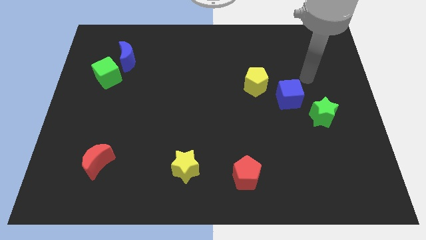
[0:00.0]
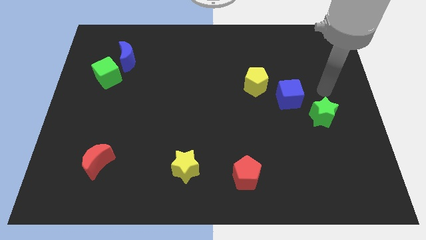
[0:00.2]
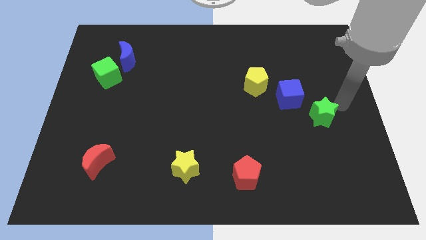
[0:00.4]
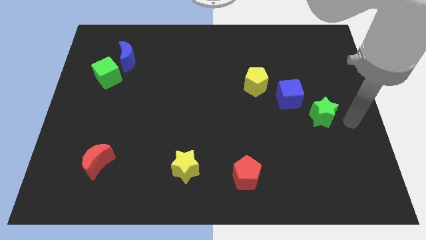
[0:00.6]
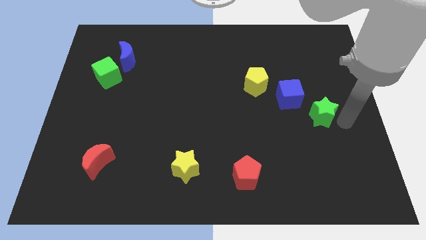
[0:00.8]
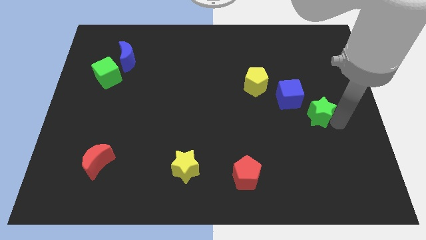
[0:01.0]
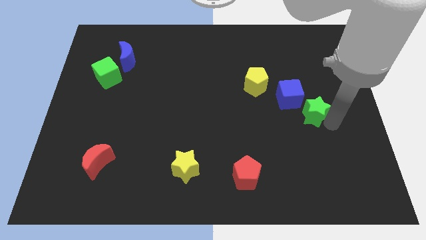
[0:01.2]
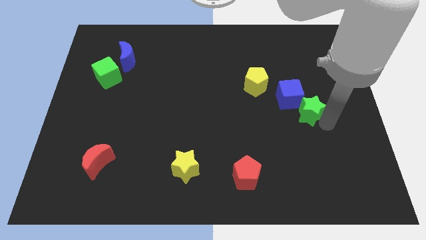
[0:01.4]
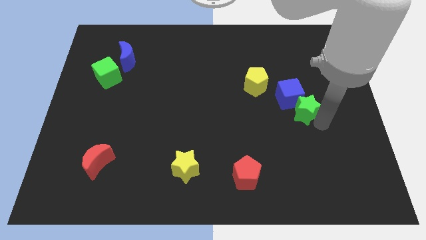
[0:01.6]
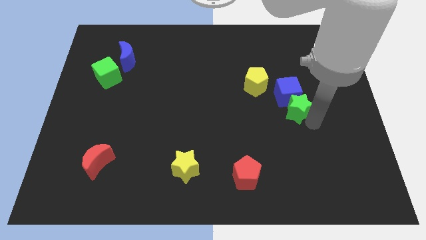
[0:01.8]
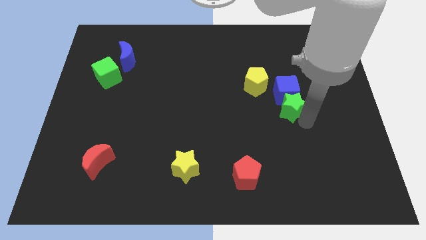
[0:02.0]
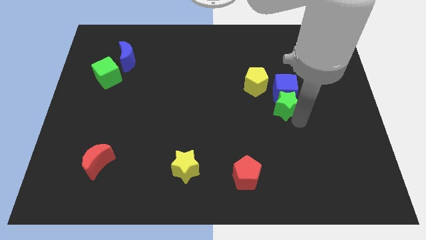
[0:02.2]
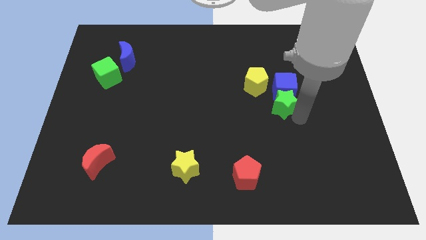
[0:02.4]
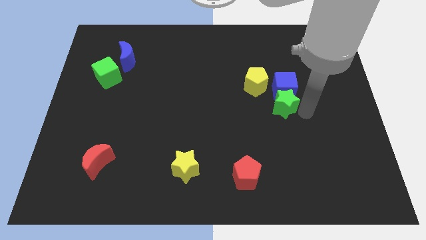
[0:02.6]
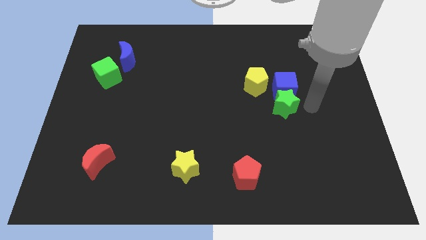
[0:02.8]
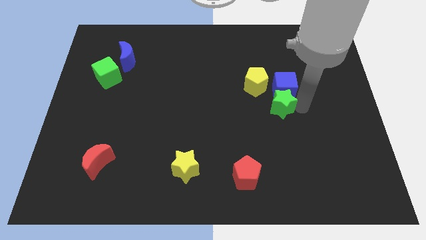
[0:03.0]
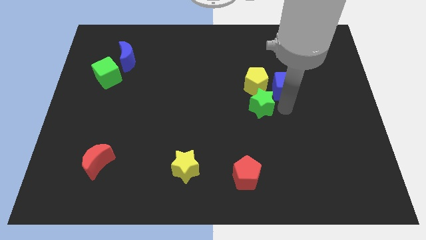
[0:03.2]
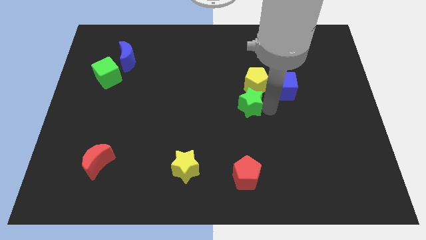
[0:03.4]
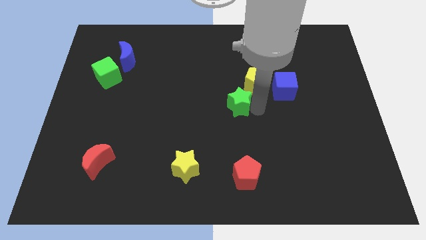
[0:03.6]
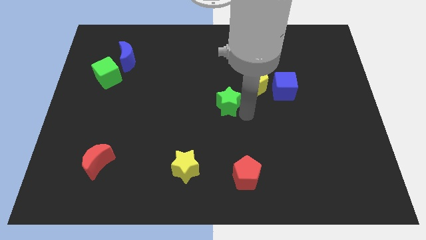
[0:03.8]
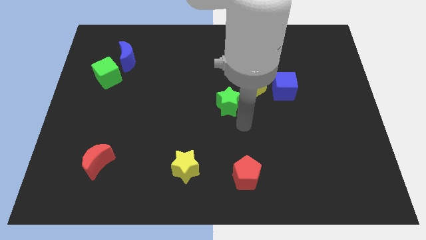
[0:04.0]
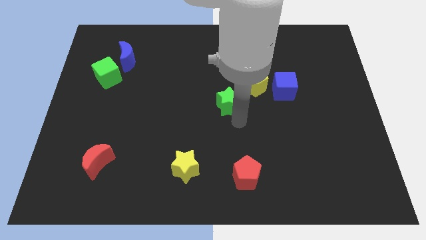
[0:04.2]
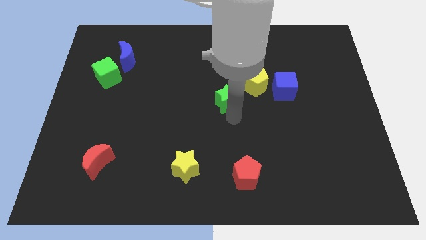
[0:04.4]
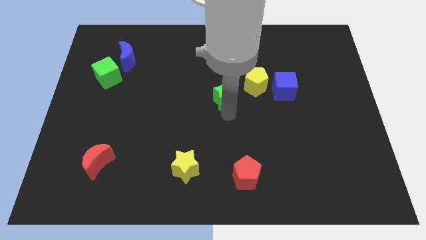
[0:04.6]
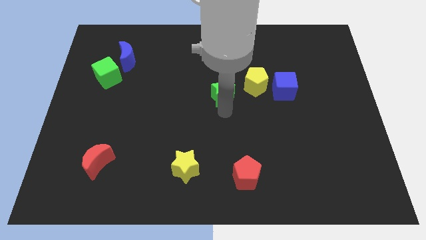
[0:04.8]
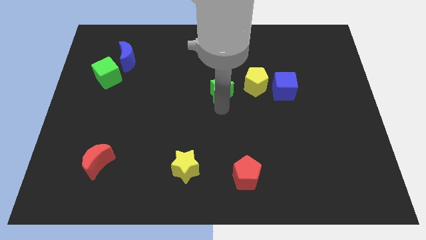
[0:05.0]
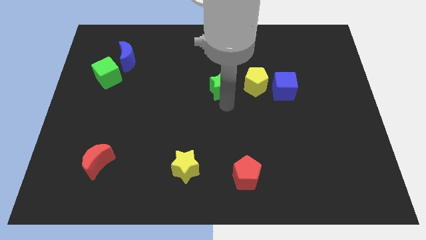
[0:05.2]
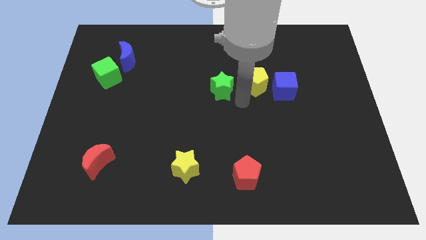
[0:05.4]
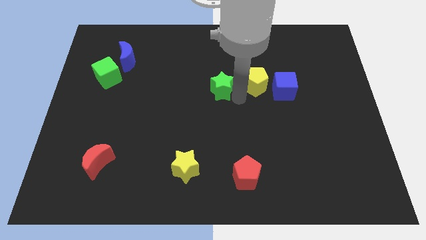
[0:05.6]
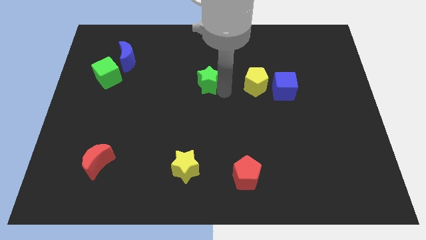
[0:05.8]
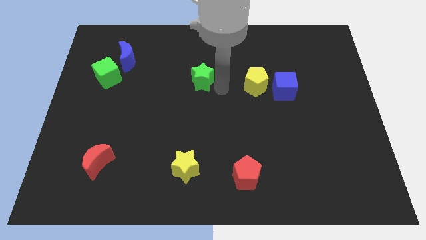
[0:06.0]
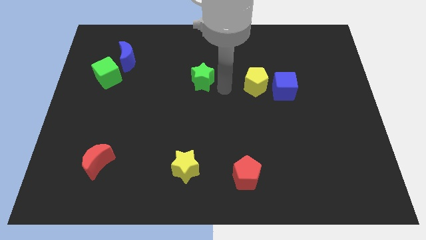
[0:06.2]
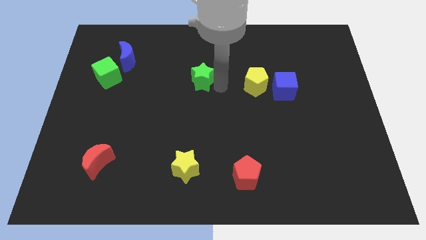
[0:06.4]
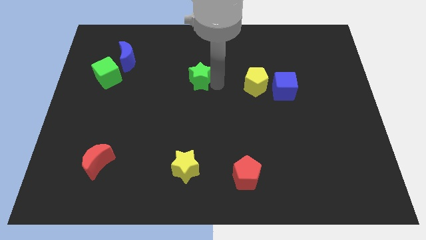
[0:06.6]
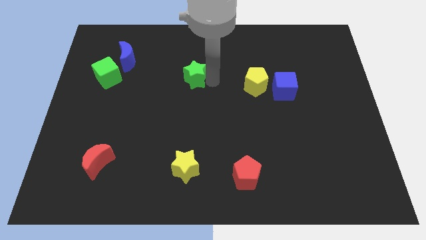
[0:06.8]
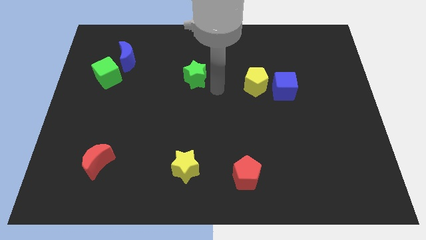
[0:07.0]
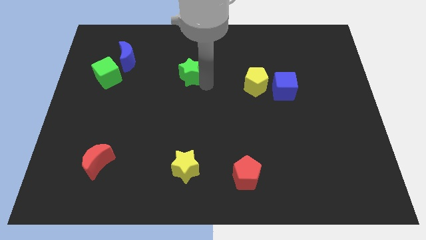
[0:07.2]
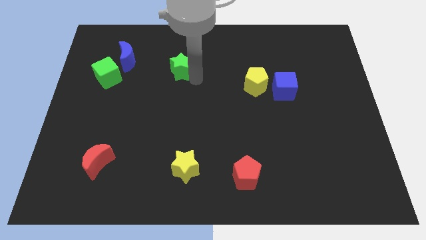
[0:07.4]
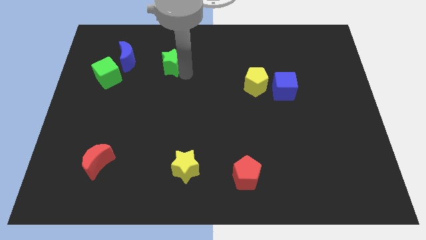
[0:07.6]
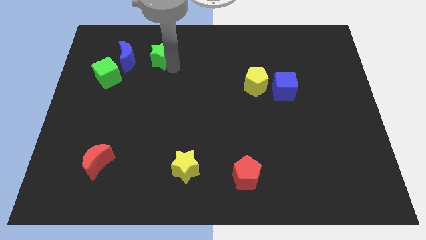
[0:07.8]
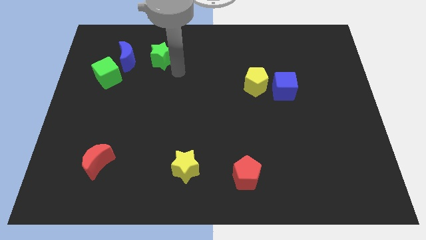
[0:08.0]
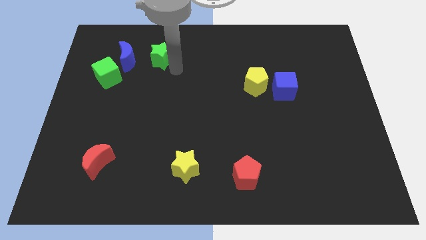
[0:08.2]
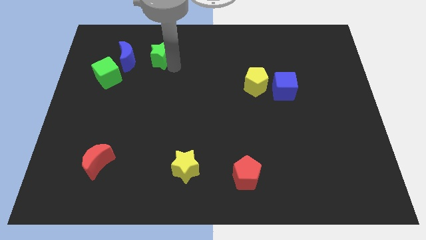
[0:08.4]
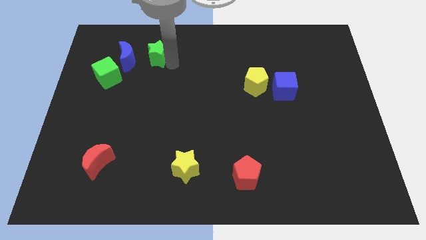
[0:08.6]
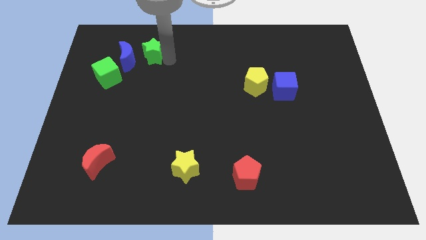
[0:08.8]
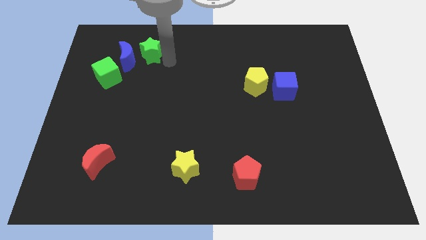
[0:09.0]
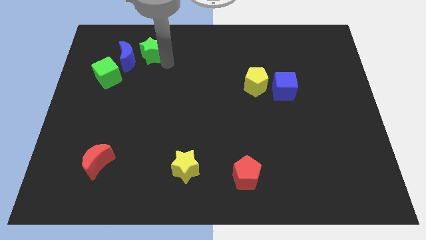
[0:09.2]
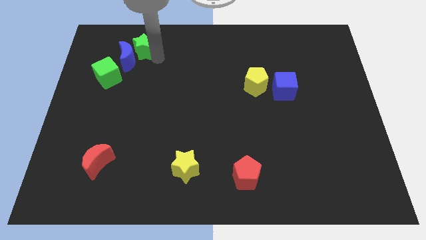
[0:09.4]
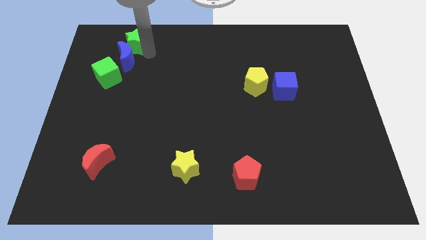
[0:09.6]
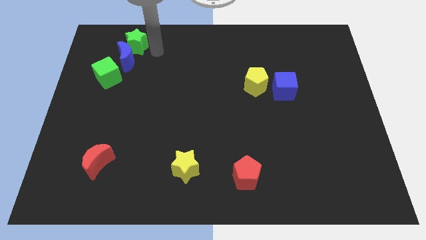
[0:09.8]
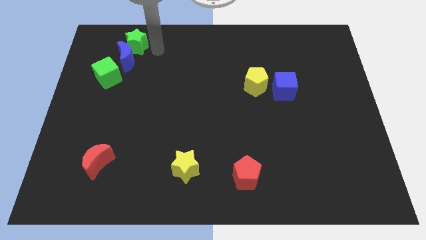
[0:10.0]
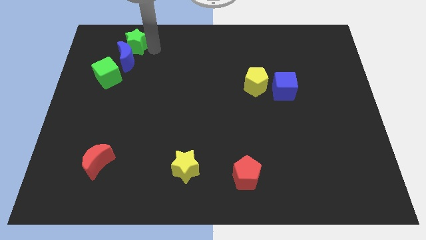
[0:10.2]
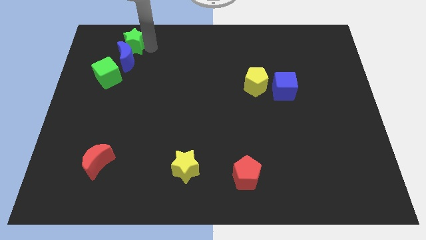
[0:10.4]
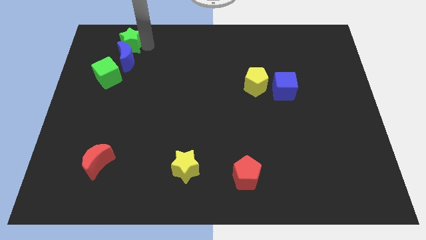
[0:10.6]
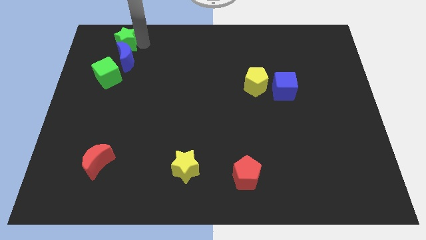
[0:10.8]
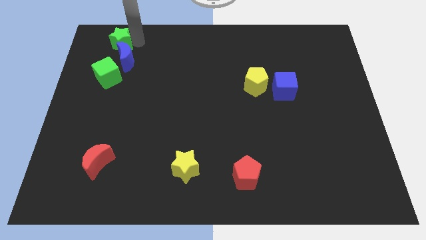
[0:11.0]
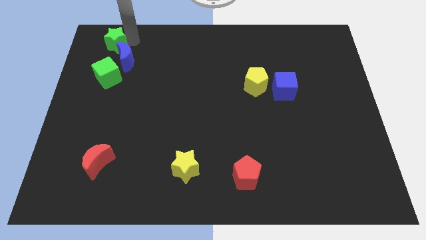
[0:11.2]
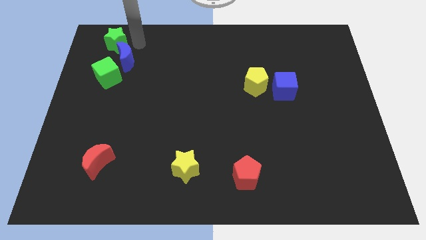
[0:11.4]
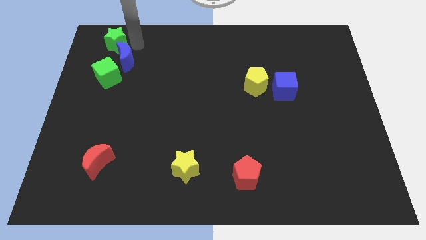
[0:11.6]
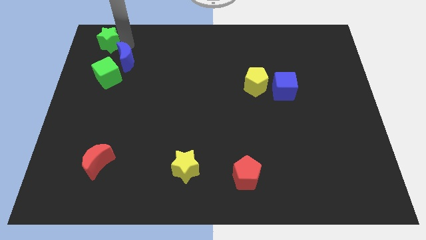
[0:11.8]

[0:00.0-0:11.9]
slide the green star to the top left corner
